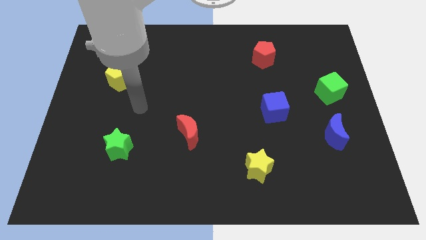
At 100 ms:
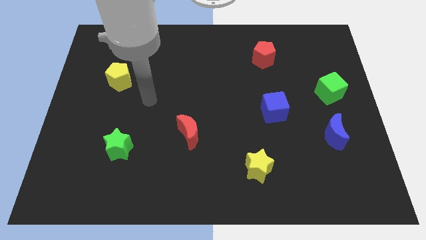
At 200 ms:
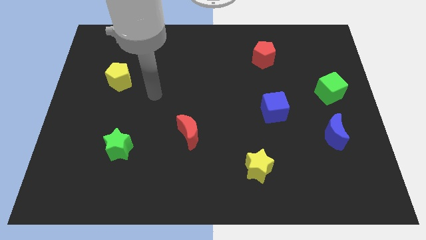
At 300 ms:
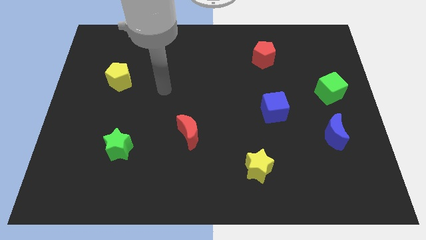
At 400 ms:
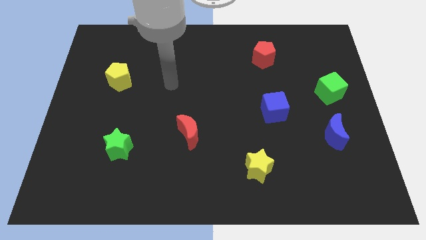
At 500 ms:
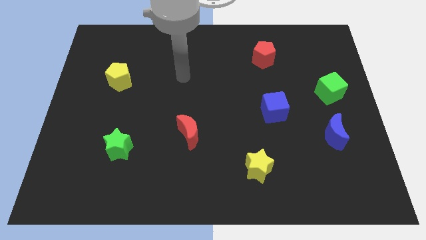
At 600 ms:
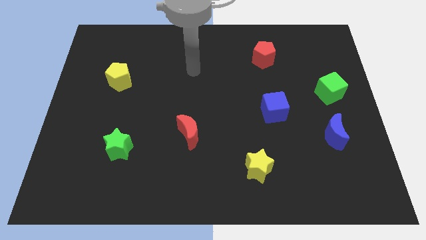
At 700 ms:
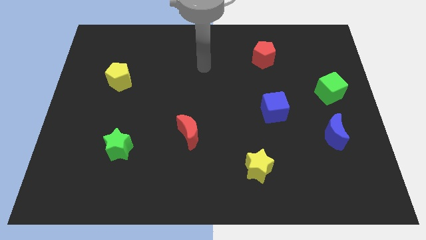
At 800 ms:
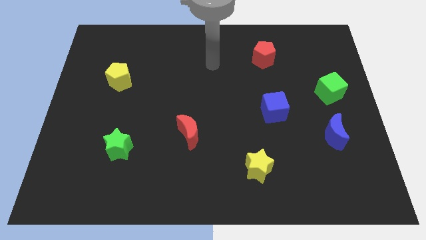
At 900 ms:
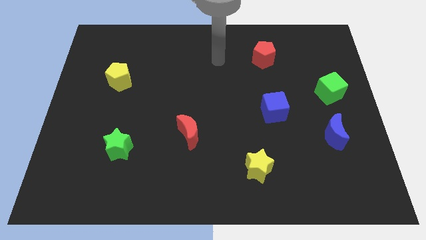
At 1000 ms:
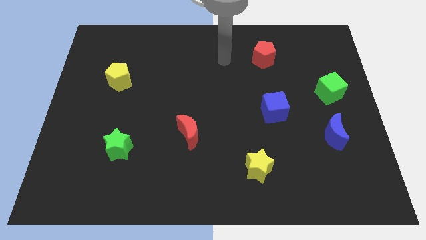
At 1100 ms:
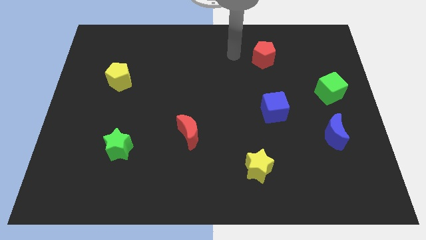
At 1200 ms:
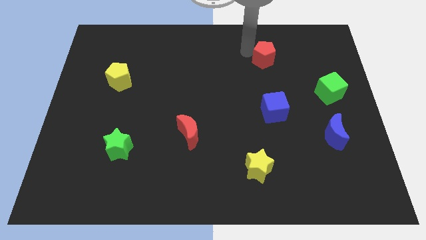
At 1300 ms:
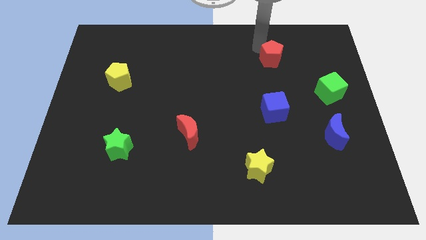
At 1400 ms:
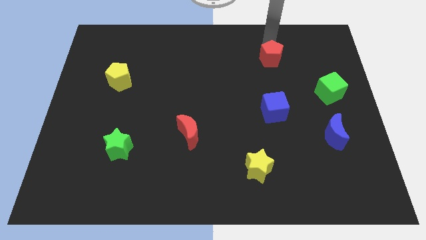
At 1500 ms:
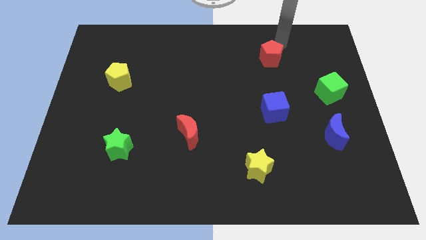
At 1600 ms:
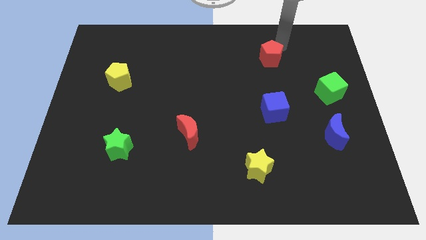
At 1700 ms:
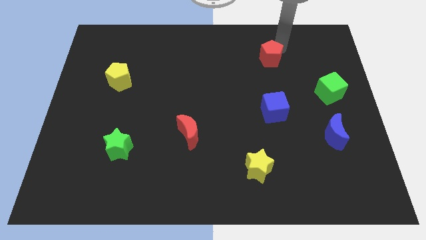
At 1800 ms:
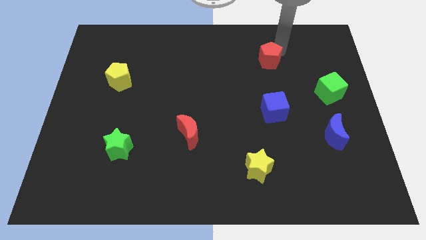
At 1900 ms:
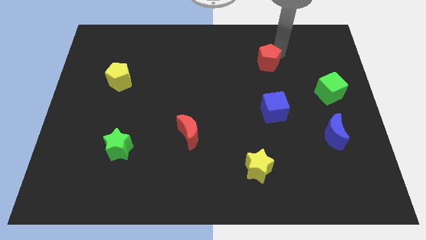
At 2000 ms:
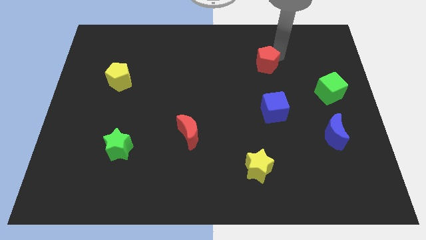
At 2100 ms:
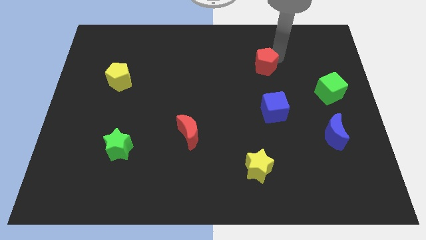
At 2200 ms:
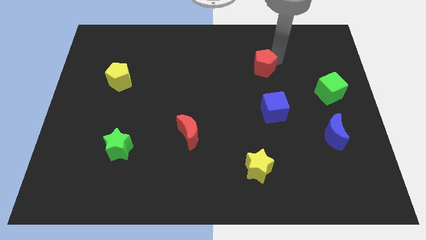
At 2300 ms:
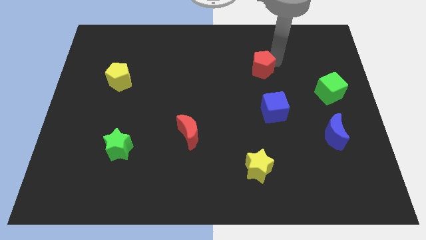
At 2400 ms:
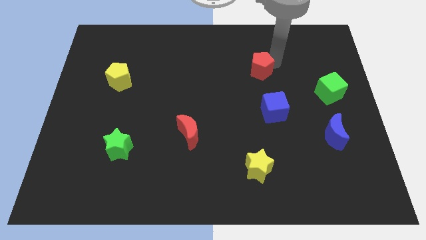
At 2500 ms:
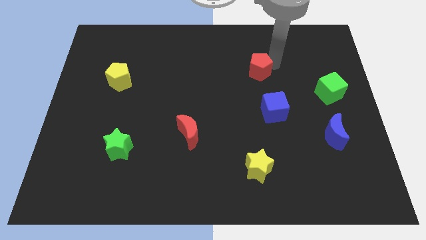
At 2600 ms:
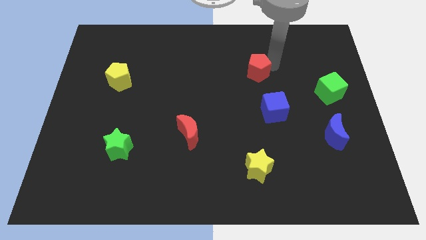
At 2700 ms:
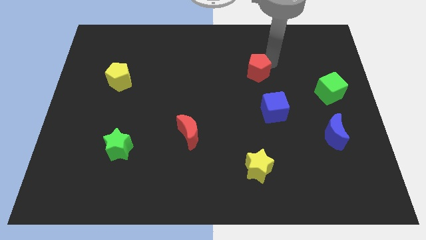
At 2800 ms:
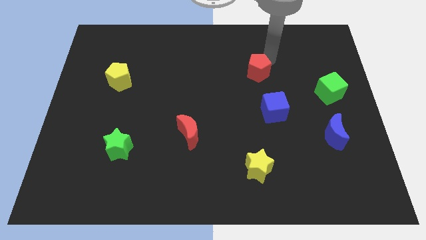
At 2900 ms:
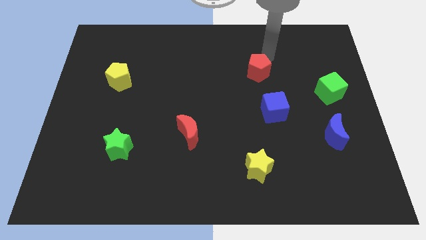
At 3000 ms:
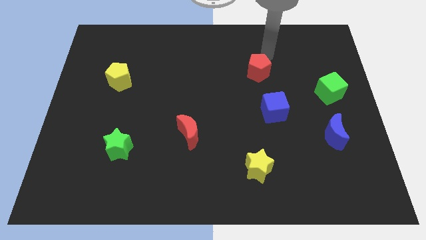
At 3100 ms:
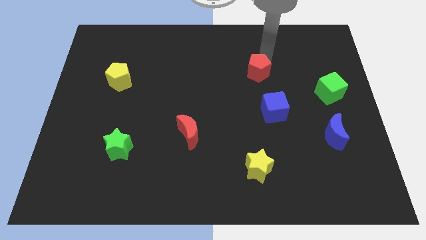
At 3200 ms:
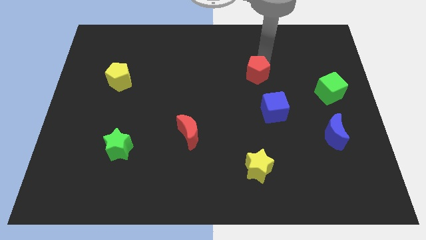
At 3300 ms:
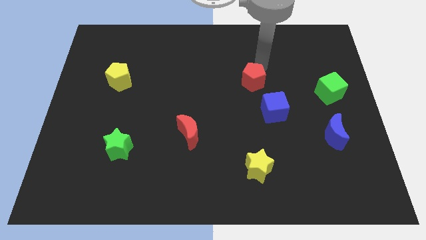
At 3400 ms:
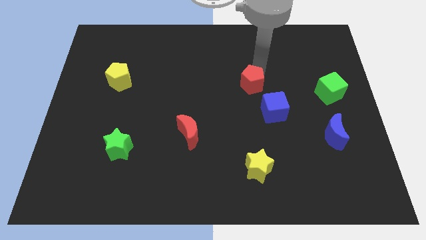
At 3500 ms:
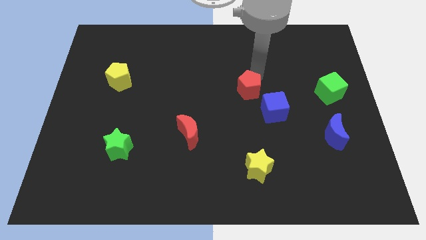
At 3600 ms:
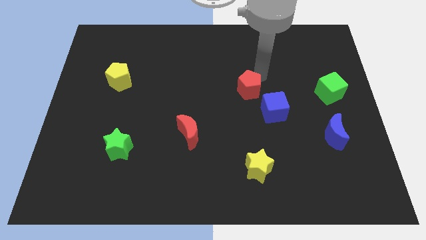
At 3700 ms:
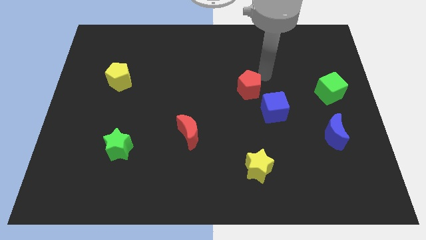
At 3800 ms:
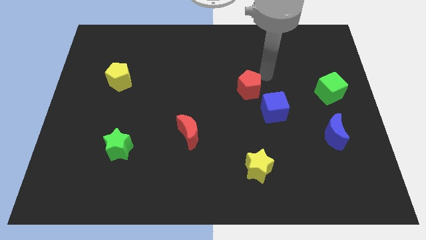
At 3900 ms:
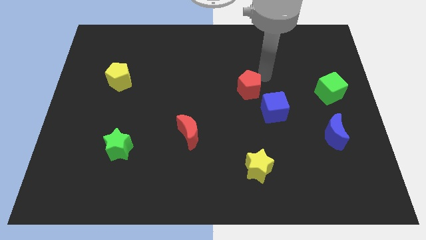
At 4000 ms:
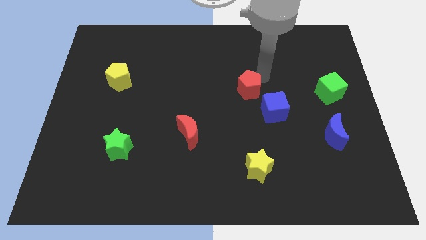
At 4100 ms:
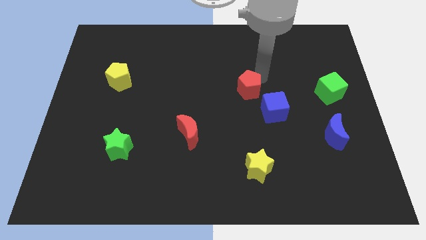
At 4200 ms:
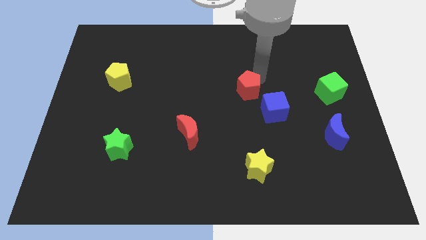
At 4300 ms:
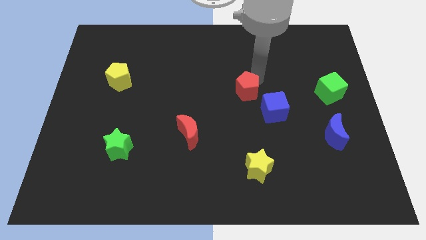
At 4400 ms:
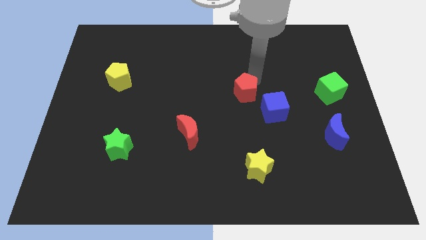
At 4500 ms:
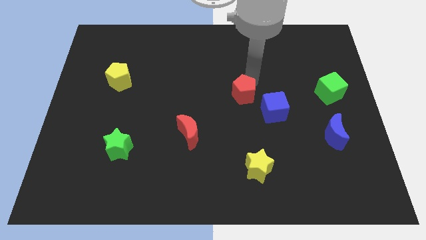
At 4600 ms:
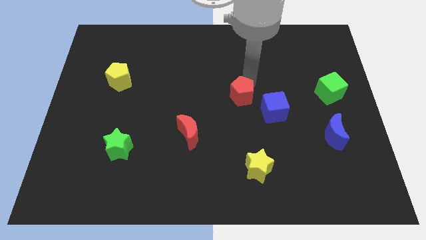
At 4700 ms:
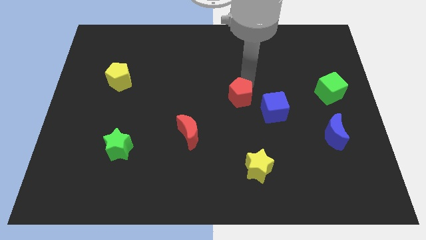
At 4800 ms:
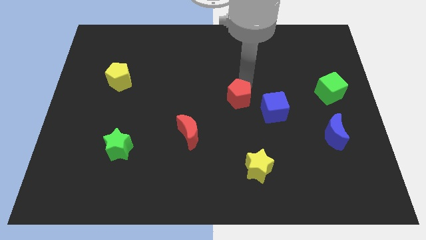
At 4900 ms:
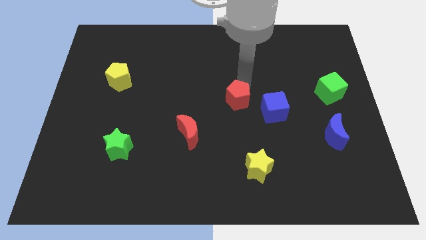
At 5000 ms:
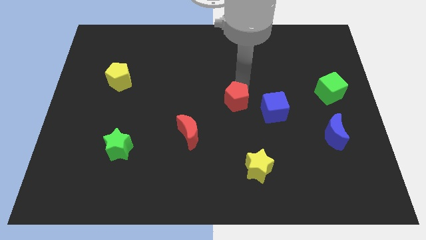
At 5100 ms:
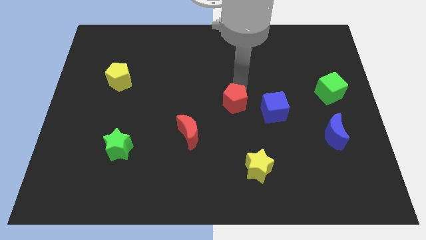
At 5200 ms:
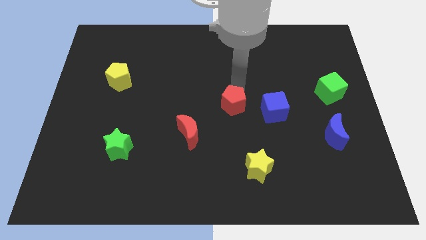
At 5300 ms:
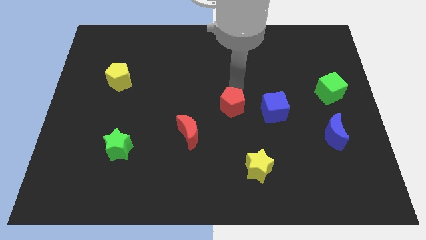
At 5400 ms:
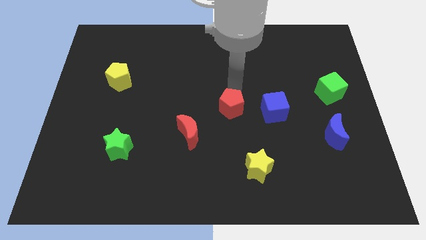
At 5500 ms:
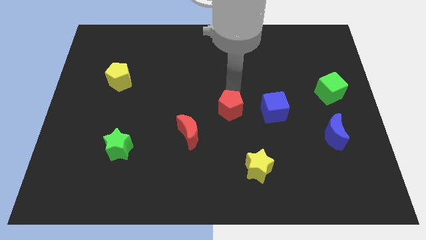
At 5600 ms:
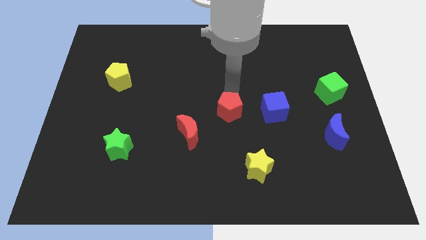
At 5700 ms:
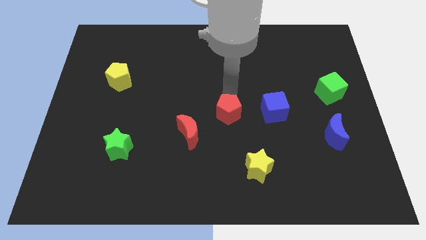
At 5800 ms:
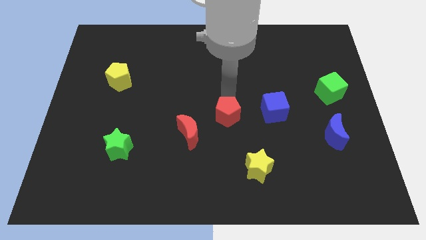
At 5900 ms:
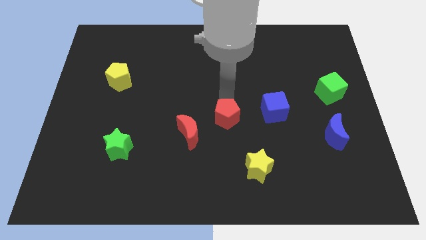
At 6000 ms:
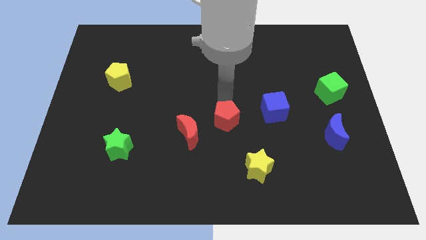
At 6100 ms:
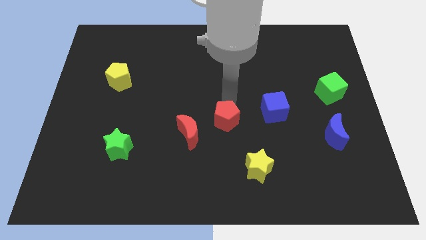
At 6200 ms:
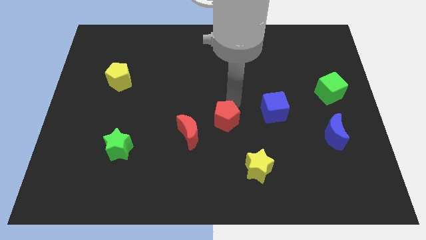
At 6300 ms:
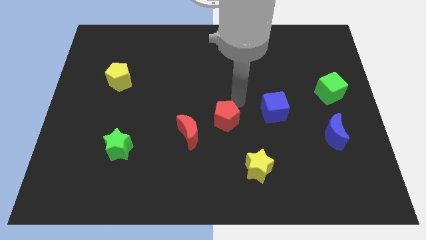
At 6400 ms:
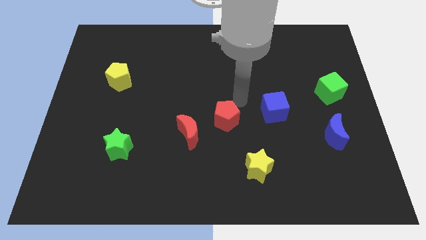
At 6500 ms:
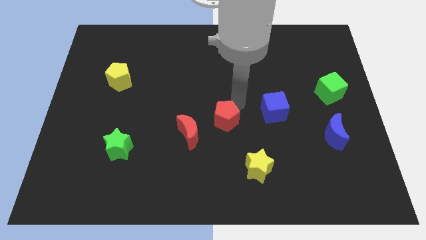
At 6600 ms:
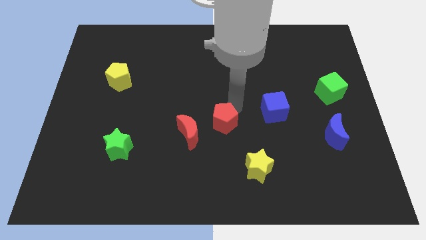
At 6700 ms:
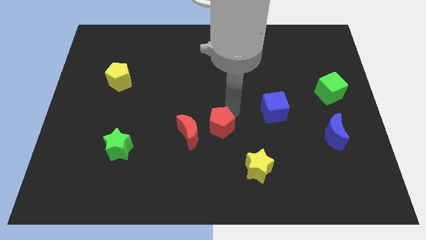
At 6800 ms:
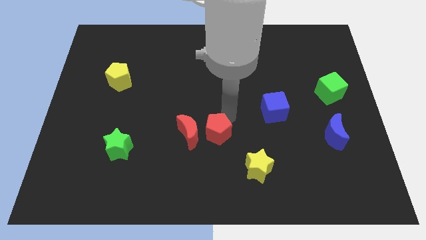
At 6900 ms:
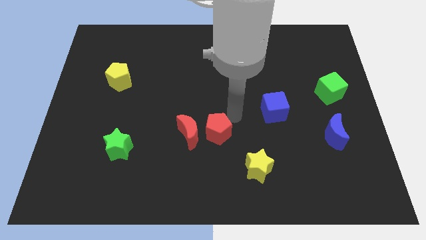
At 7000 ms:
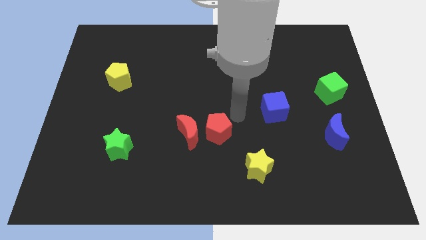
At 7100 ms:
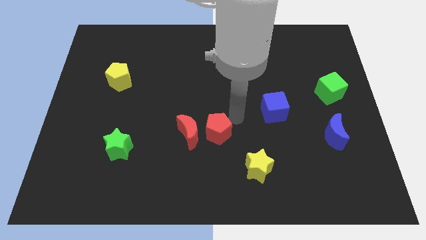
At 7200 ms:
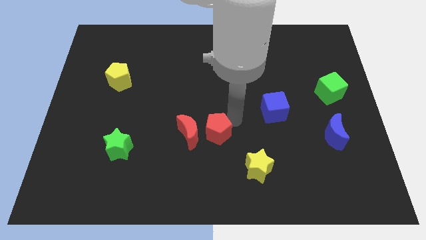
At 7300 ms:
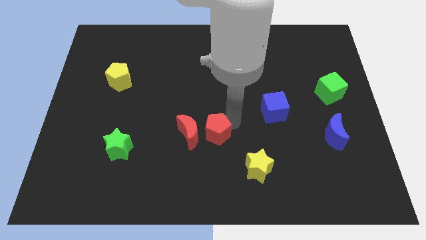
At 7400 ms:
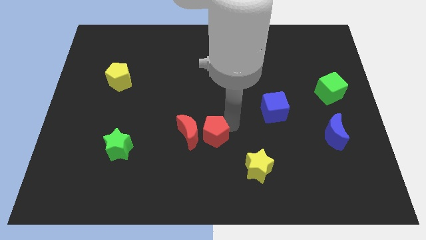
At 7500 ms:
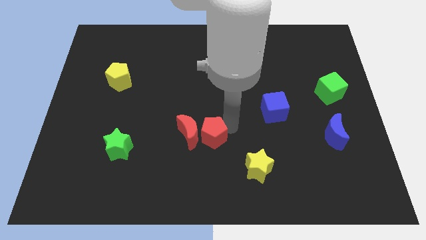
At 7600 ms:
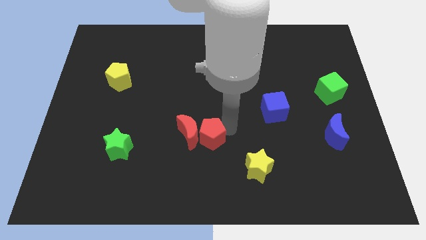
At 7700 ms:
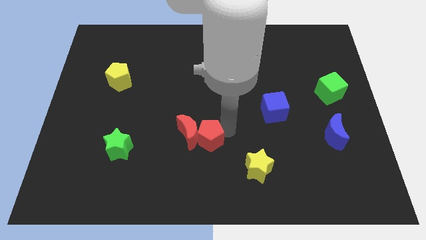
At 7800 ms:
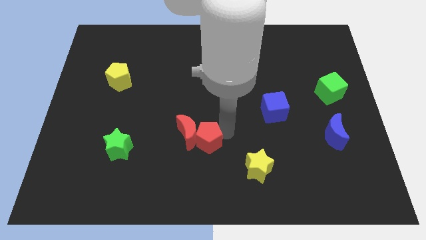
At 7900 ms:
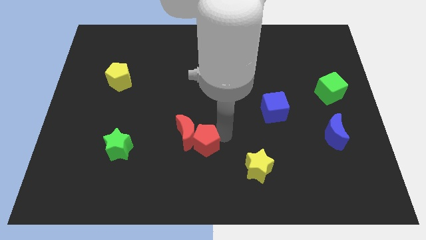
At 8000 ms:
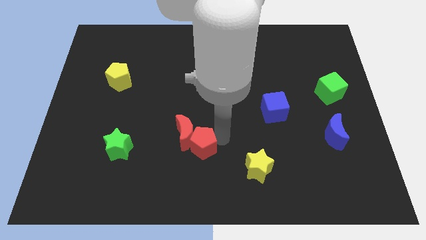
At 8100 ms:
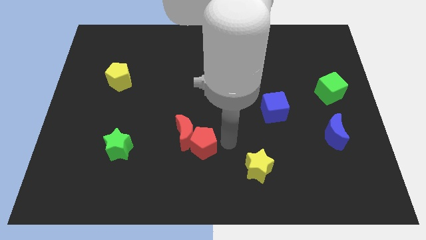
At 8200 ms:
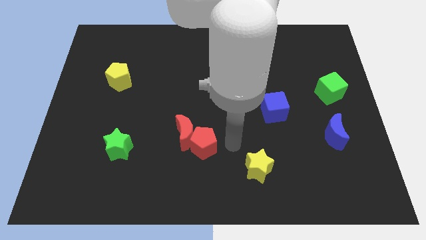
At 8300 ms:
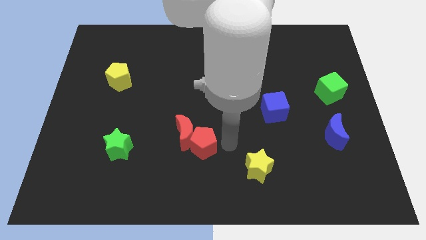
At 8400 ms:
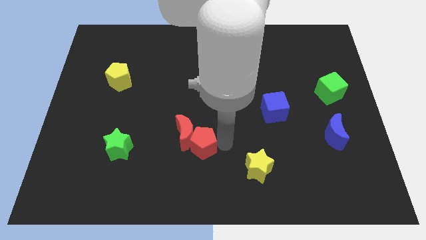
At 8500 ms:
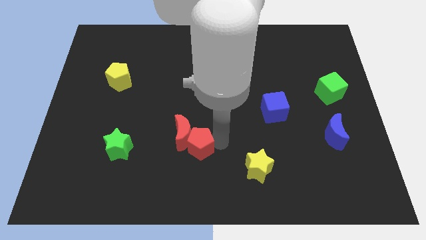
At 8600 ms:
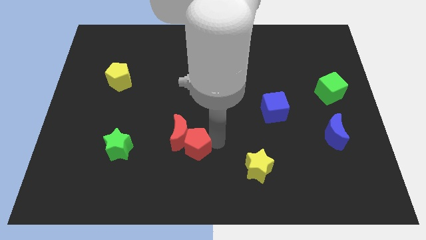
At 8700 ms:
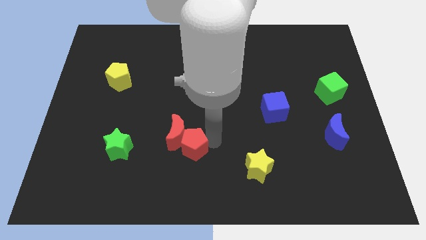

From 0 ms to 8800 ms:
push the red pentagon to the right side of the green star
